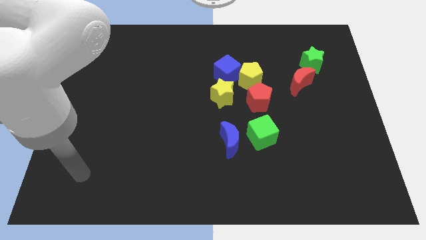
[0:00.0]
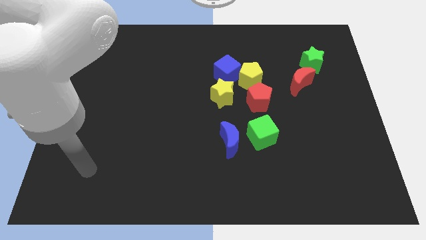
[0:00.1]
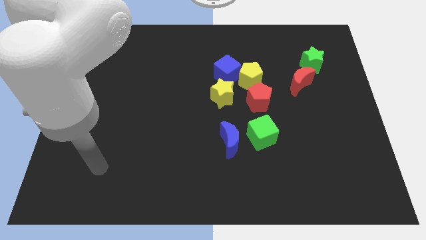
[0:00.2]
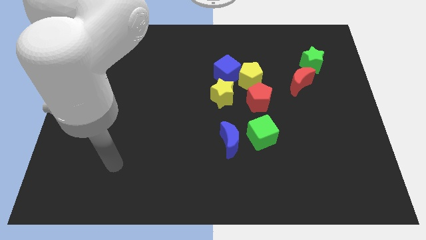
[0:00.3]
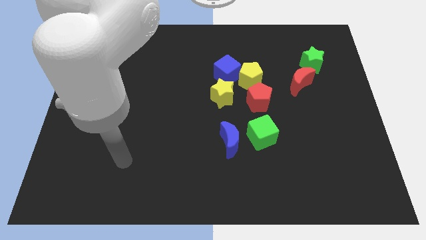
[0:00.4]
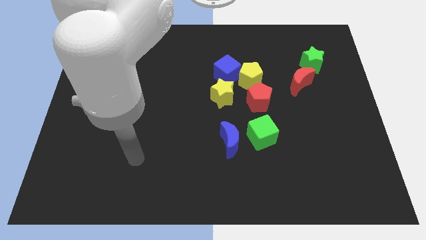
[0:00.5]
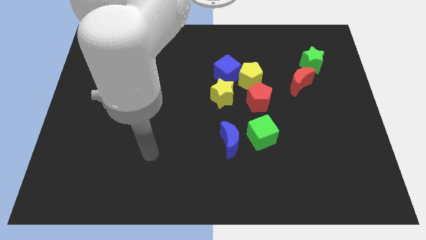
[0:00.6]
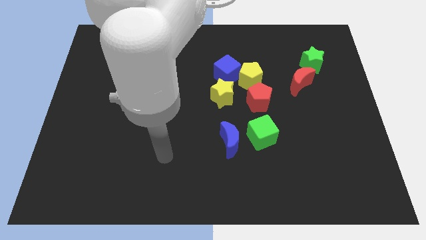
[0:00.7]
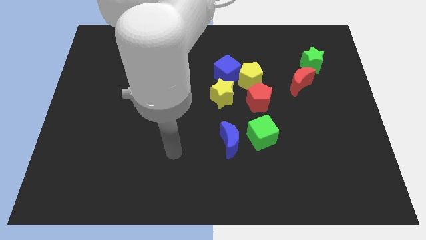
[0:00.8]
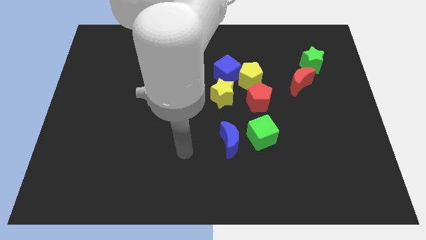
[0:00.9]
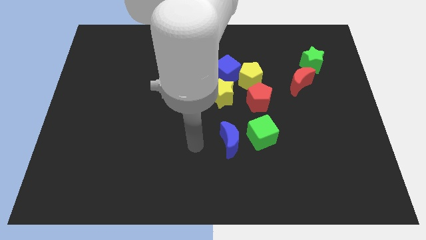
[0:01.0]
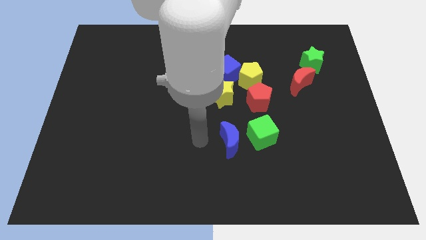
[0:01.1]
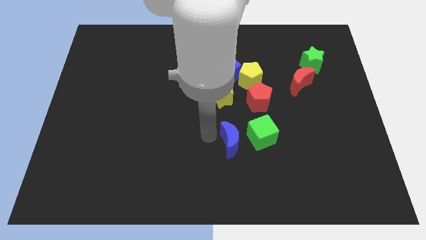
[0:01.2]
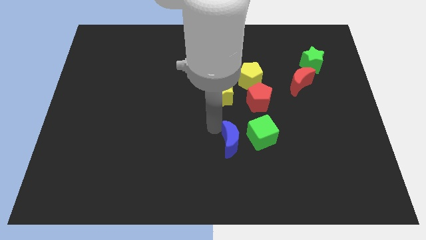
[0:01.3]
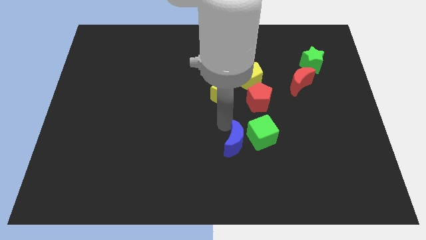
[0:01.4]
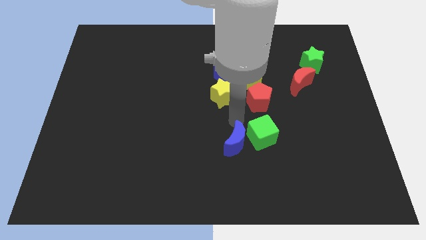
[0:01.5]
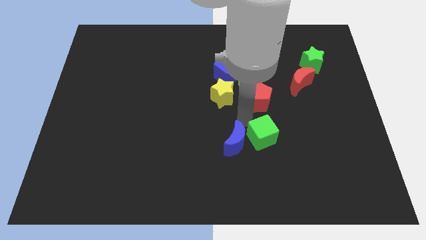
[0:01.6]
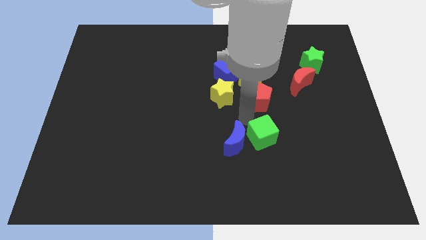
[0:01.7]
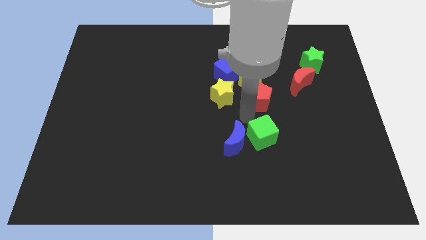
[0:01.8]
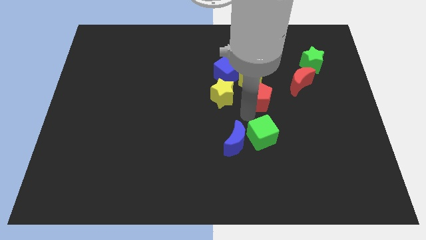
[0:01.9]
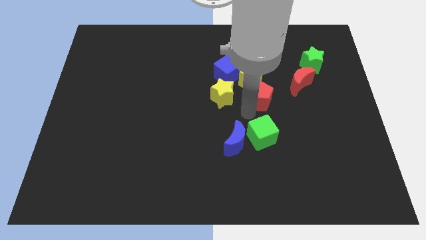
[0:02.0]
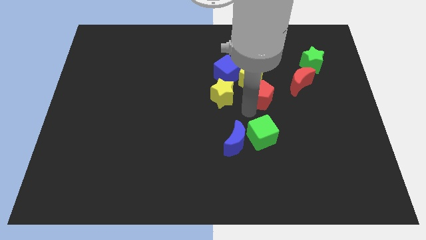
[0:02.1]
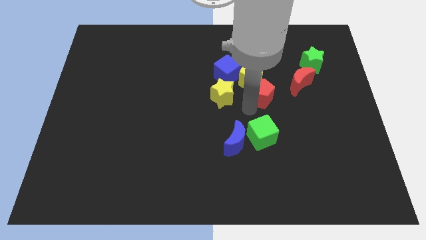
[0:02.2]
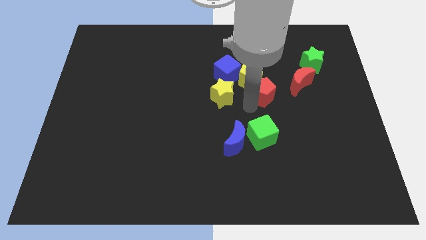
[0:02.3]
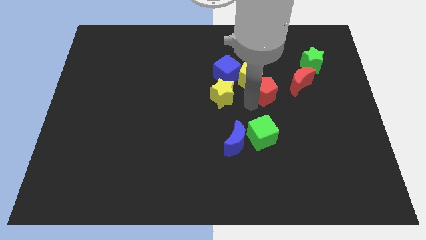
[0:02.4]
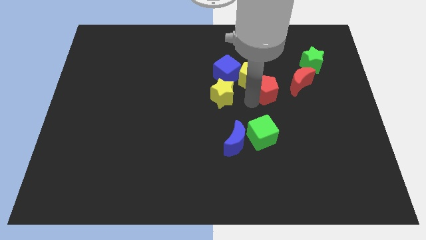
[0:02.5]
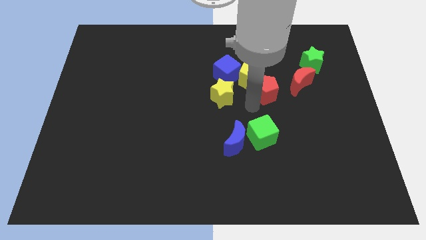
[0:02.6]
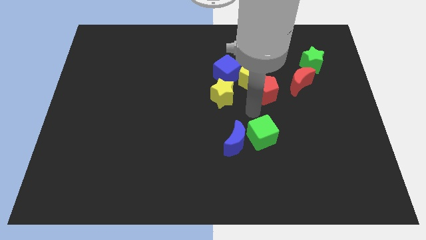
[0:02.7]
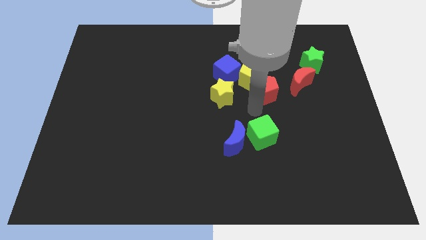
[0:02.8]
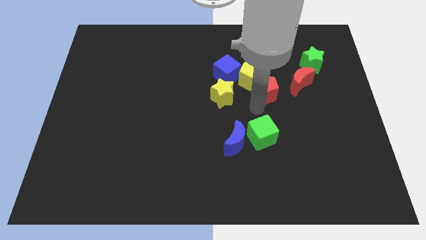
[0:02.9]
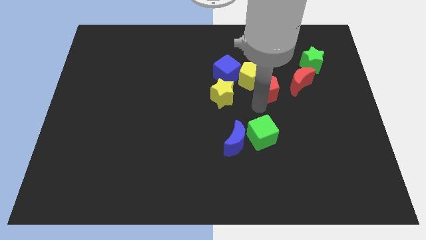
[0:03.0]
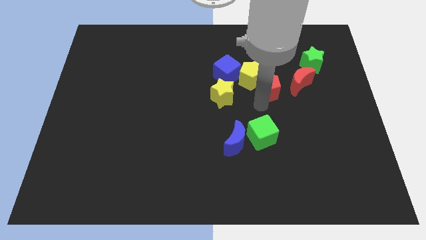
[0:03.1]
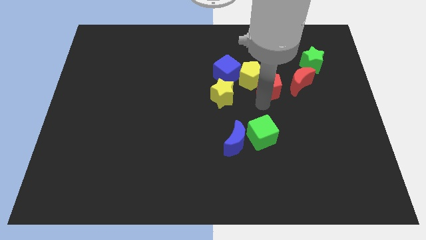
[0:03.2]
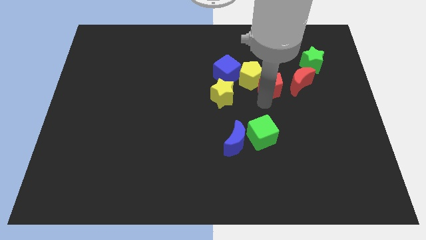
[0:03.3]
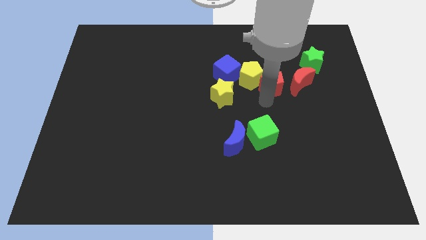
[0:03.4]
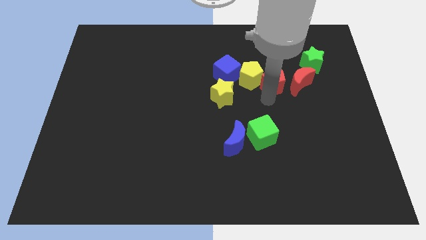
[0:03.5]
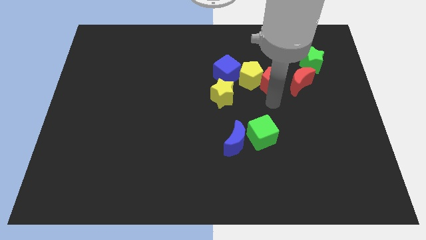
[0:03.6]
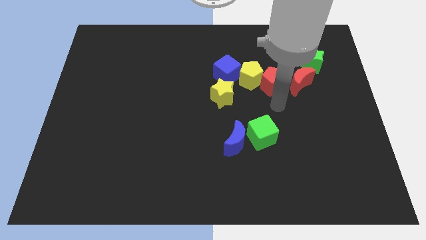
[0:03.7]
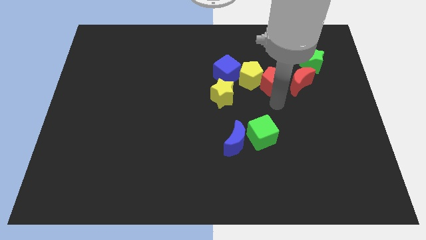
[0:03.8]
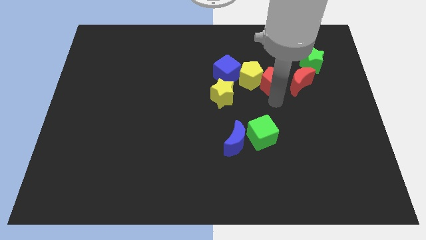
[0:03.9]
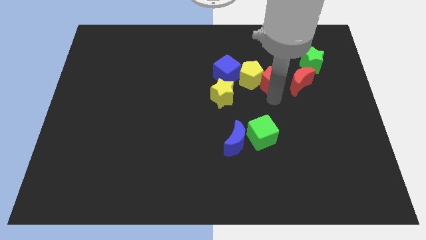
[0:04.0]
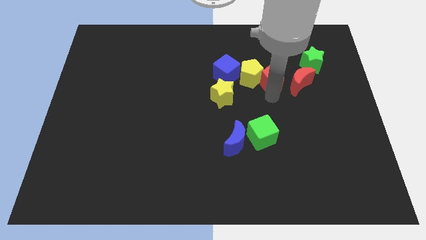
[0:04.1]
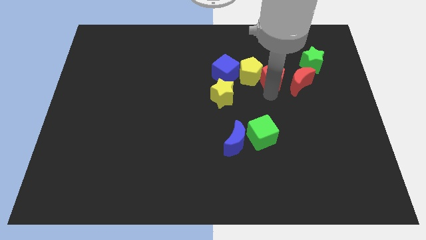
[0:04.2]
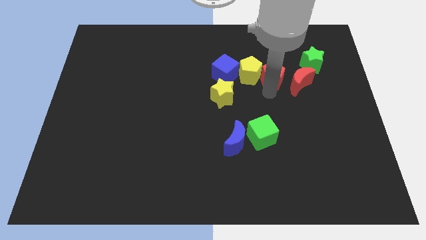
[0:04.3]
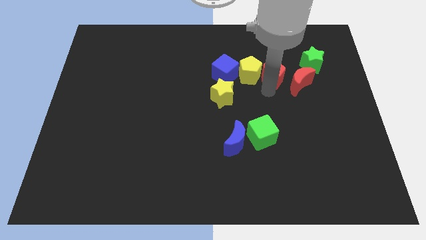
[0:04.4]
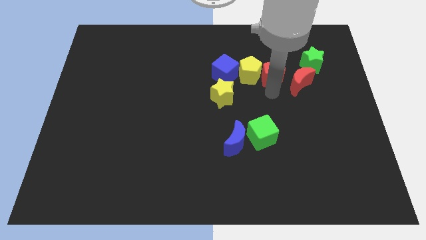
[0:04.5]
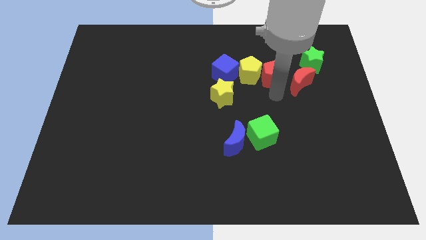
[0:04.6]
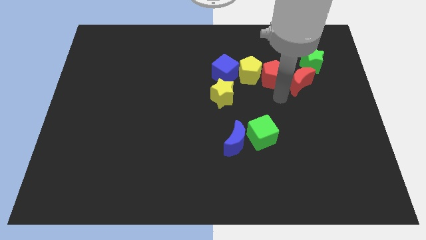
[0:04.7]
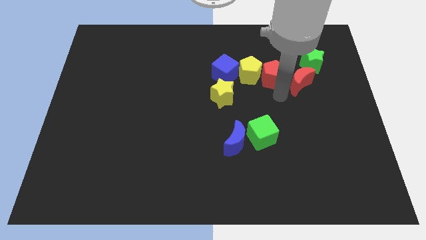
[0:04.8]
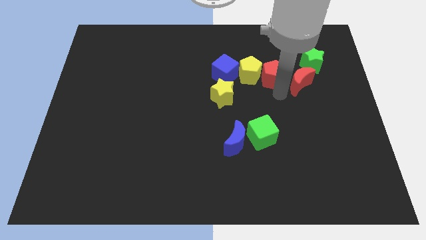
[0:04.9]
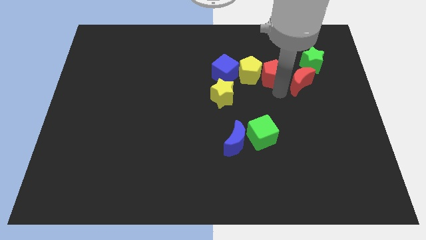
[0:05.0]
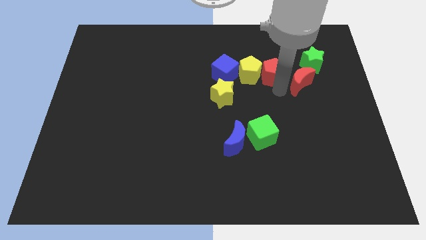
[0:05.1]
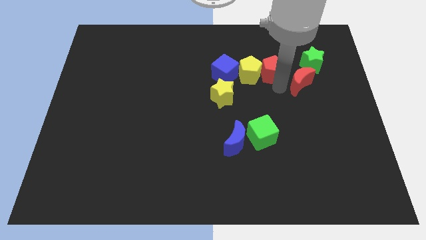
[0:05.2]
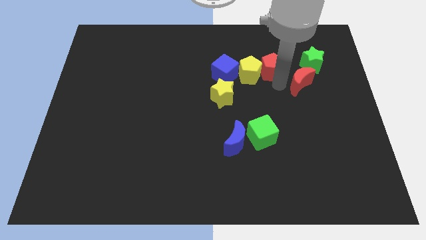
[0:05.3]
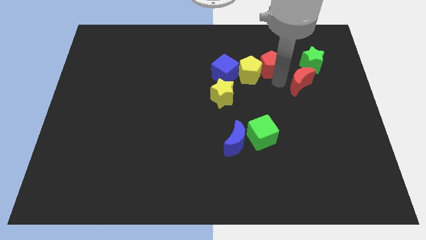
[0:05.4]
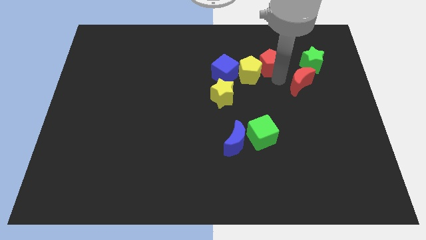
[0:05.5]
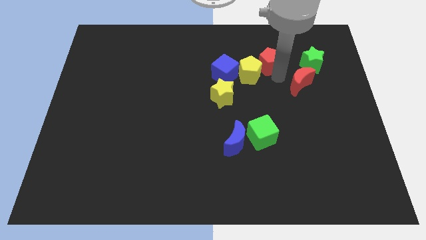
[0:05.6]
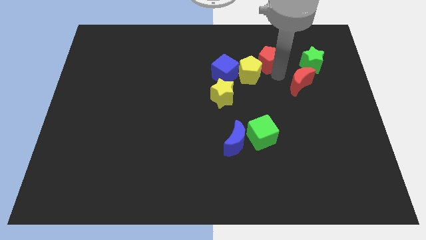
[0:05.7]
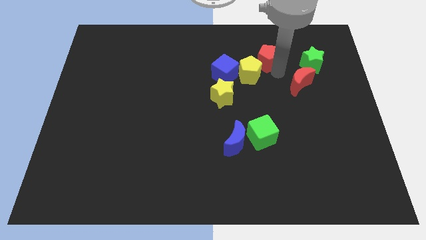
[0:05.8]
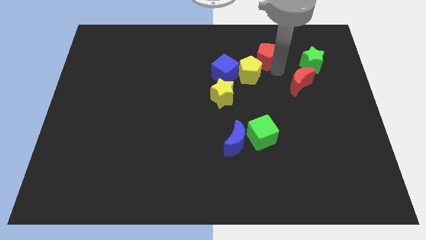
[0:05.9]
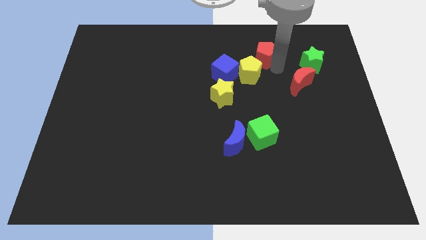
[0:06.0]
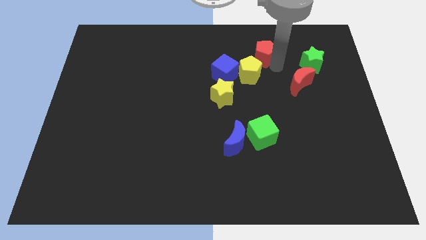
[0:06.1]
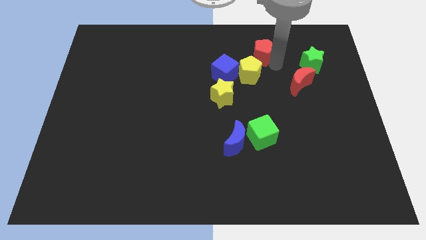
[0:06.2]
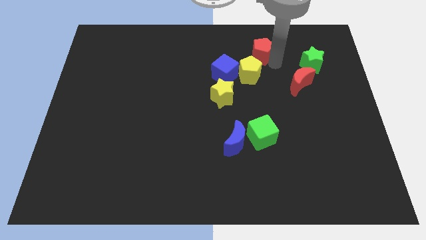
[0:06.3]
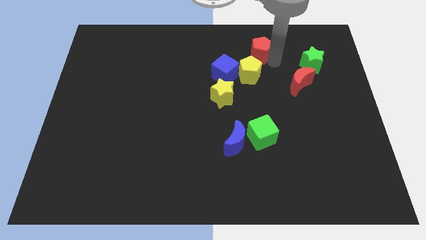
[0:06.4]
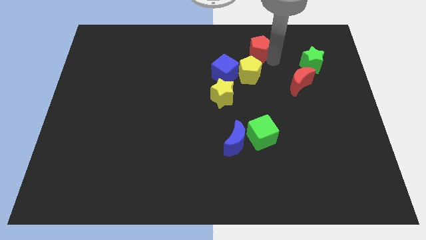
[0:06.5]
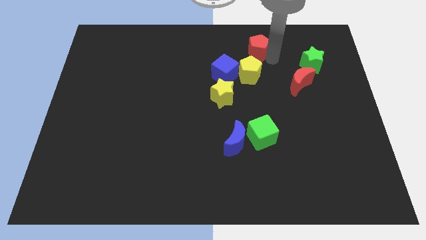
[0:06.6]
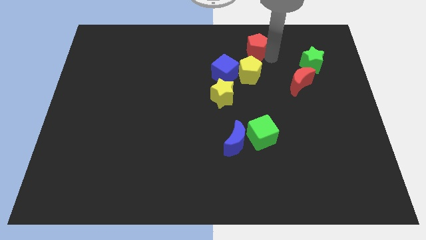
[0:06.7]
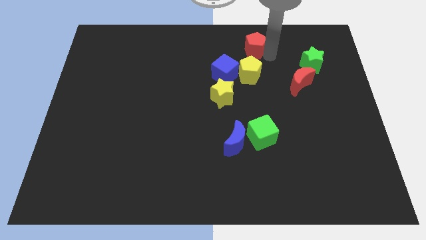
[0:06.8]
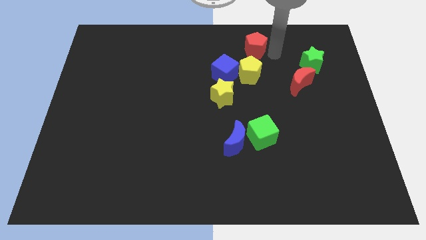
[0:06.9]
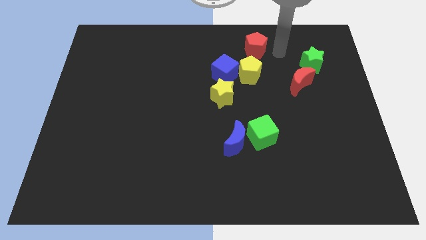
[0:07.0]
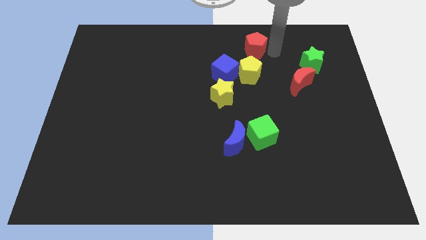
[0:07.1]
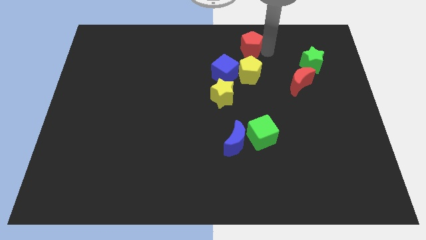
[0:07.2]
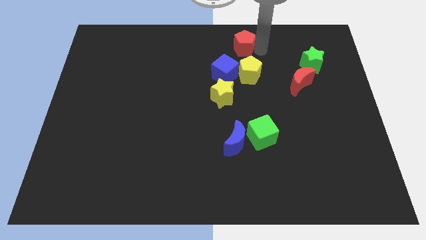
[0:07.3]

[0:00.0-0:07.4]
put the red pentagon to the towards your base
